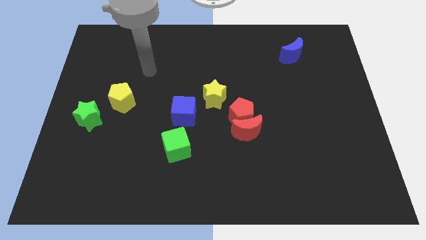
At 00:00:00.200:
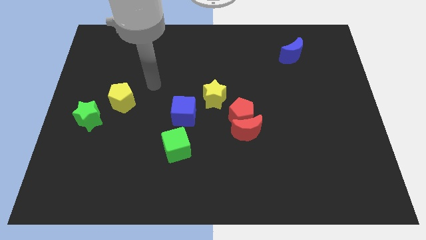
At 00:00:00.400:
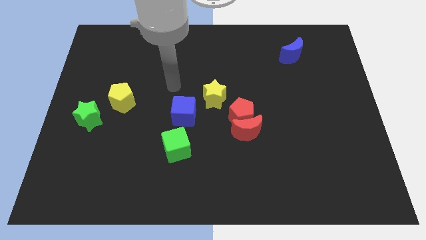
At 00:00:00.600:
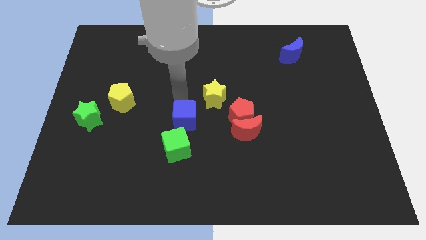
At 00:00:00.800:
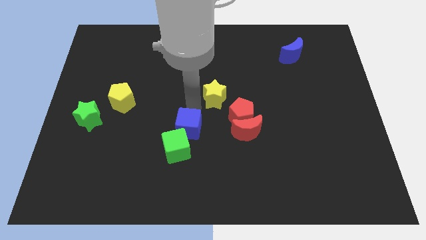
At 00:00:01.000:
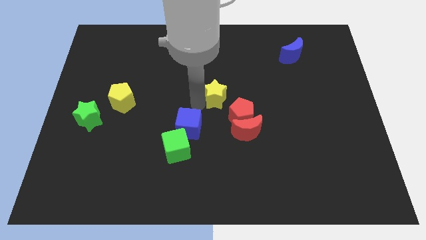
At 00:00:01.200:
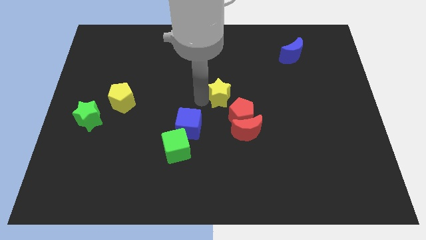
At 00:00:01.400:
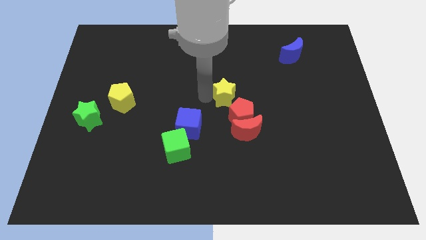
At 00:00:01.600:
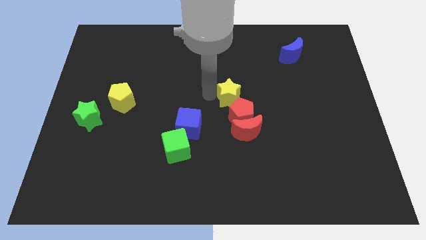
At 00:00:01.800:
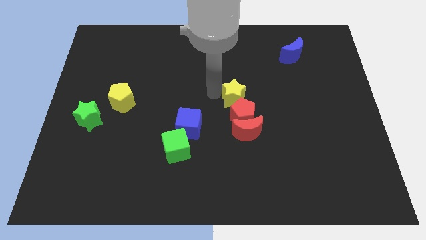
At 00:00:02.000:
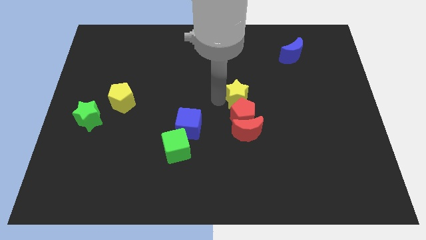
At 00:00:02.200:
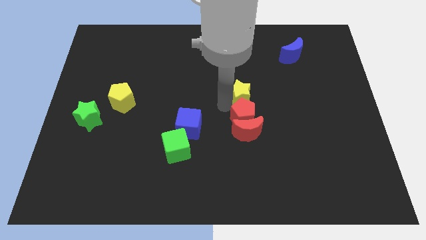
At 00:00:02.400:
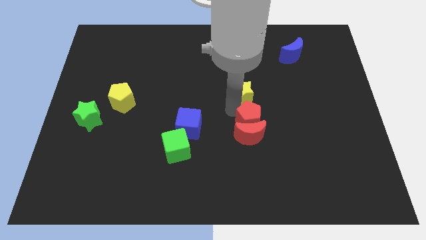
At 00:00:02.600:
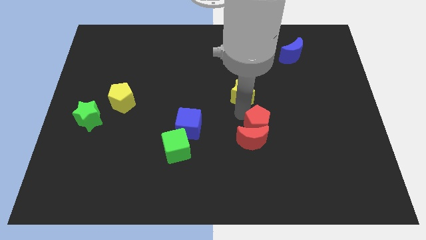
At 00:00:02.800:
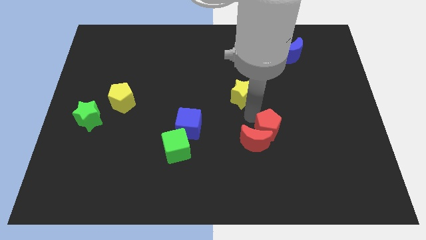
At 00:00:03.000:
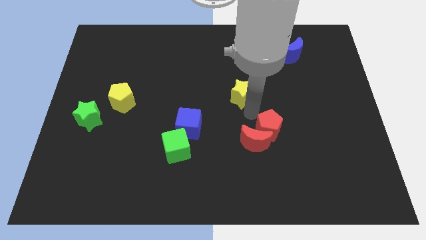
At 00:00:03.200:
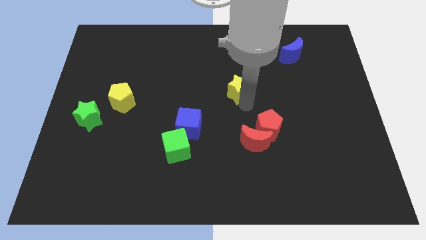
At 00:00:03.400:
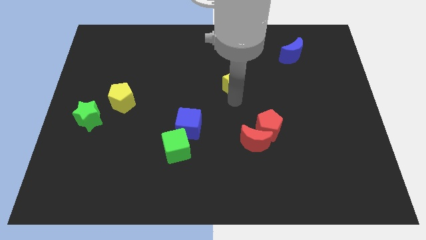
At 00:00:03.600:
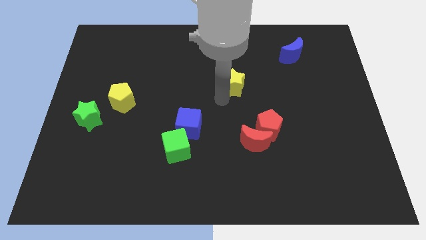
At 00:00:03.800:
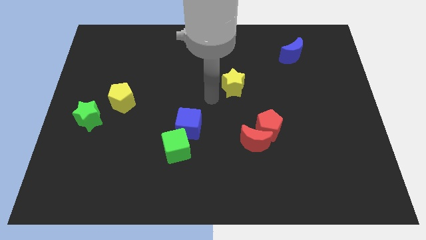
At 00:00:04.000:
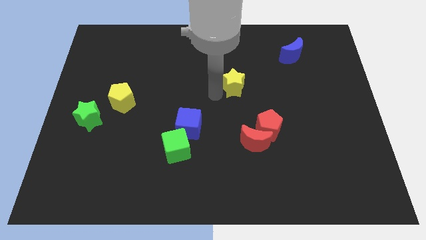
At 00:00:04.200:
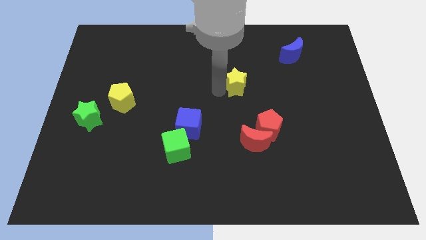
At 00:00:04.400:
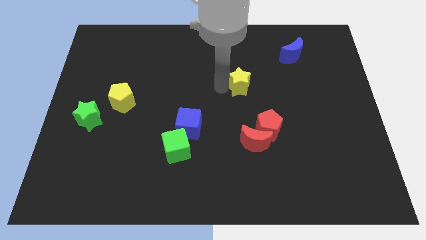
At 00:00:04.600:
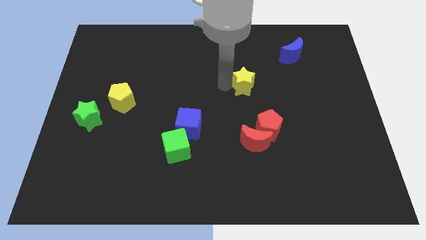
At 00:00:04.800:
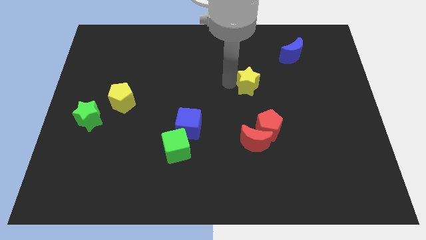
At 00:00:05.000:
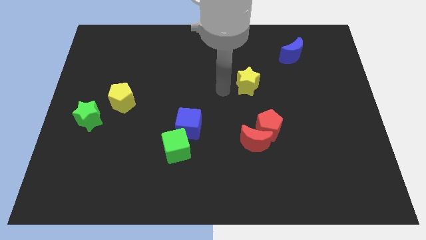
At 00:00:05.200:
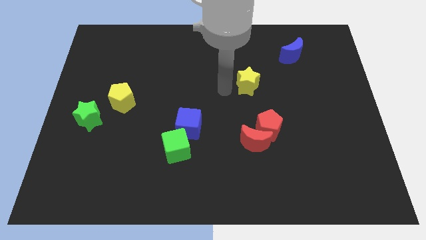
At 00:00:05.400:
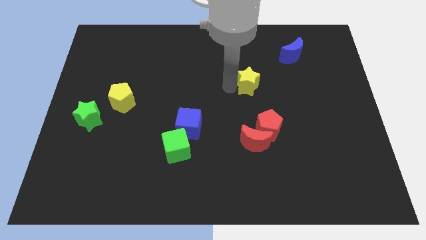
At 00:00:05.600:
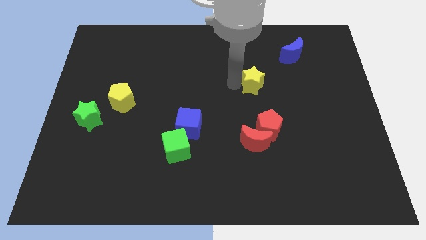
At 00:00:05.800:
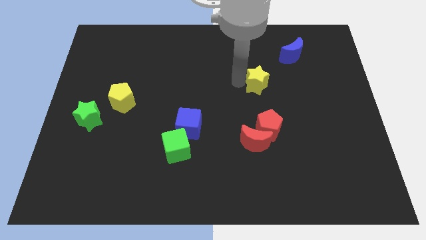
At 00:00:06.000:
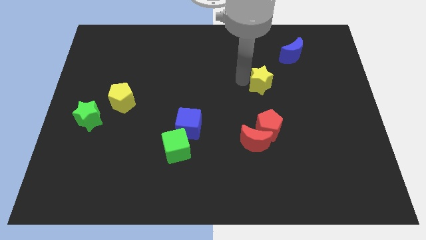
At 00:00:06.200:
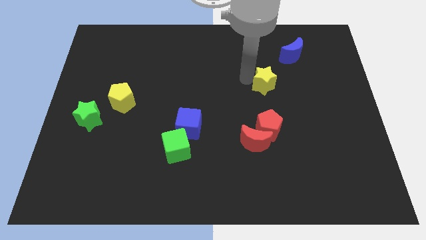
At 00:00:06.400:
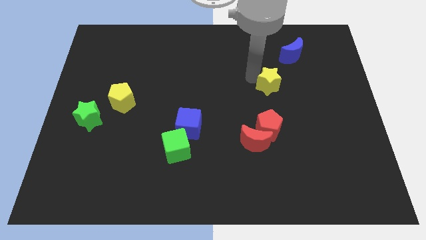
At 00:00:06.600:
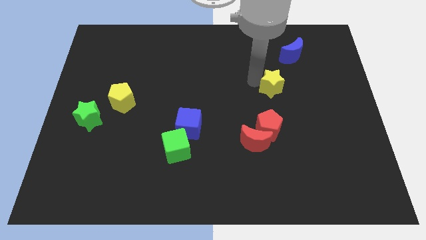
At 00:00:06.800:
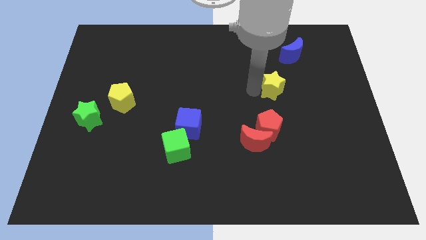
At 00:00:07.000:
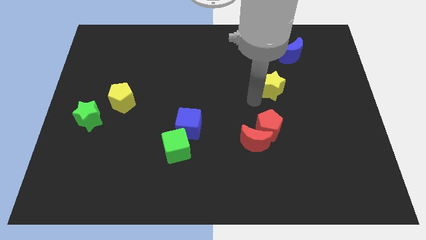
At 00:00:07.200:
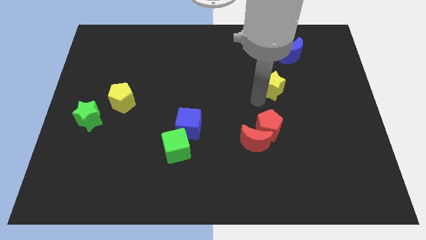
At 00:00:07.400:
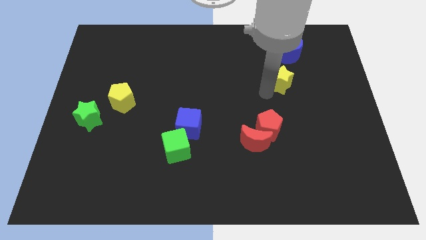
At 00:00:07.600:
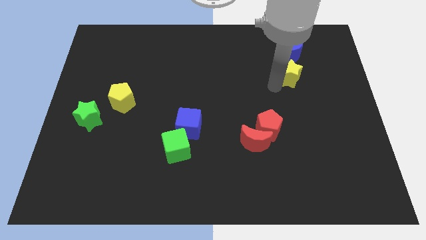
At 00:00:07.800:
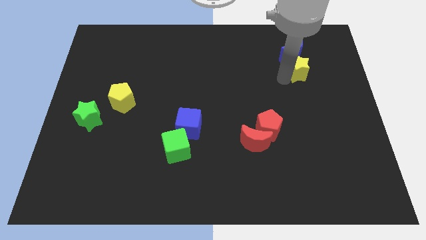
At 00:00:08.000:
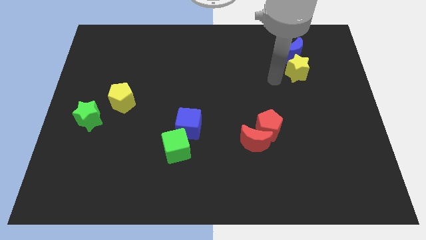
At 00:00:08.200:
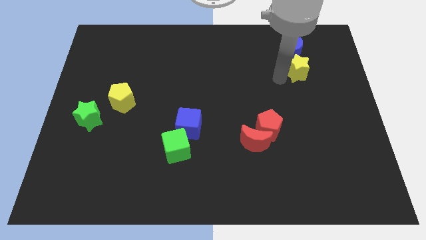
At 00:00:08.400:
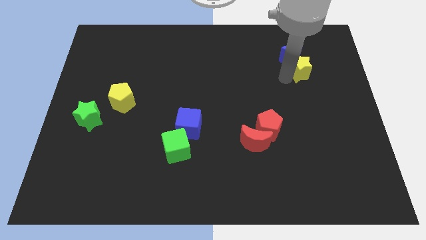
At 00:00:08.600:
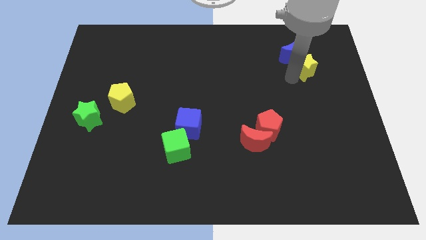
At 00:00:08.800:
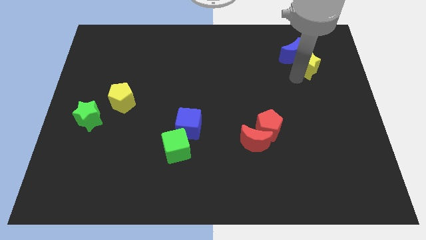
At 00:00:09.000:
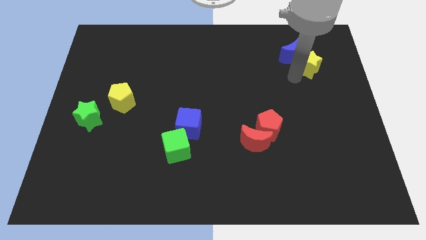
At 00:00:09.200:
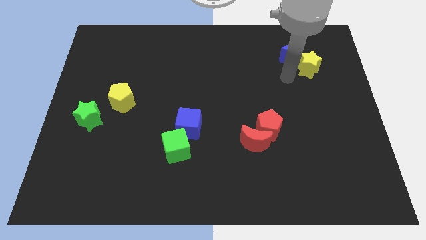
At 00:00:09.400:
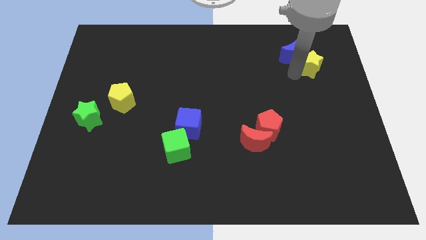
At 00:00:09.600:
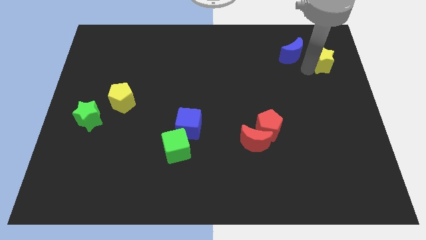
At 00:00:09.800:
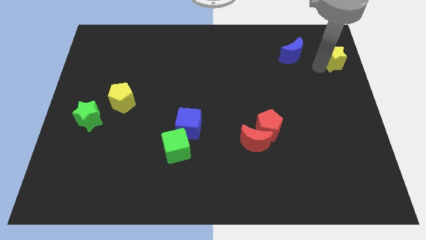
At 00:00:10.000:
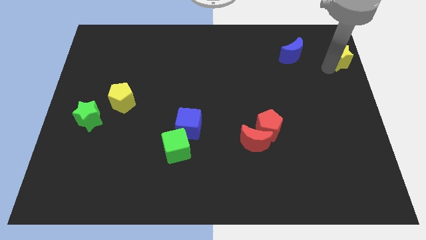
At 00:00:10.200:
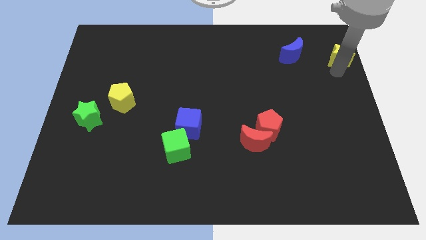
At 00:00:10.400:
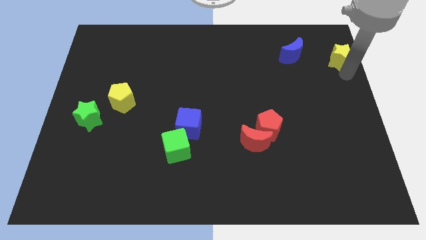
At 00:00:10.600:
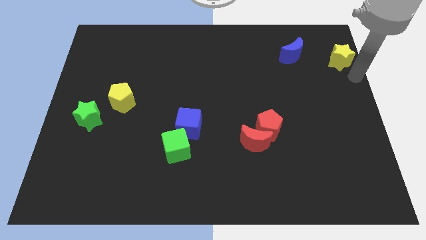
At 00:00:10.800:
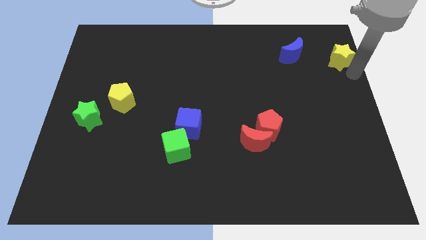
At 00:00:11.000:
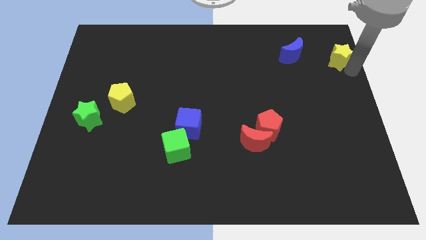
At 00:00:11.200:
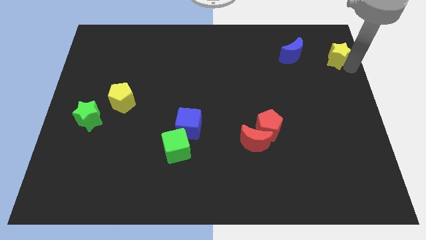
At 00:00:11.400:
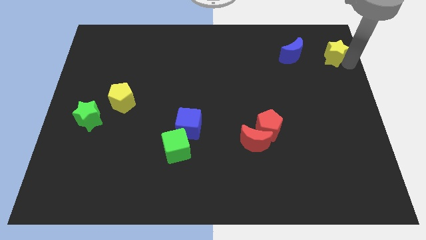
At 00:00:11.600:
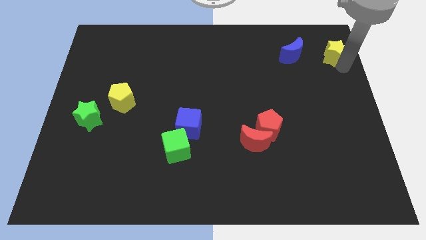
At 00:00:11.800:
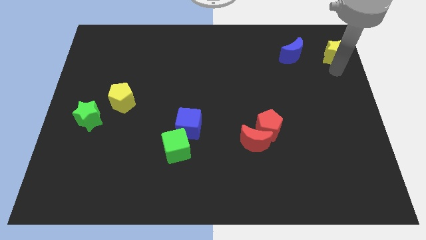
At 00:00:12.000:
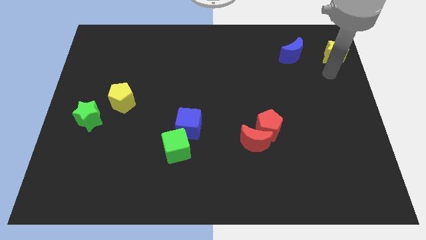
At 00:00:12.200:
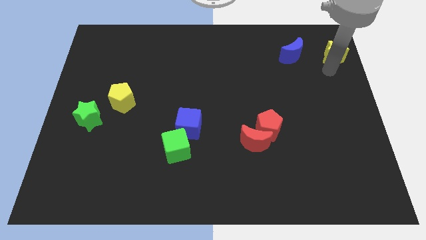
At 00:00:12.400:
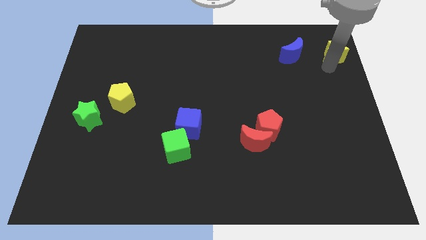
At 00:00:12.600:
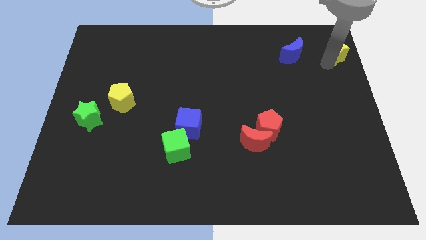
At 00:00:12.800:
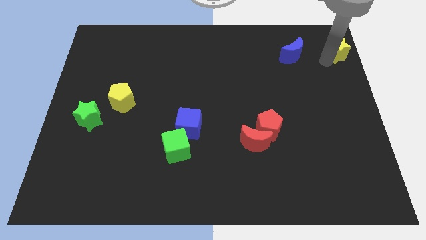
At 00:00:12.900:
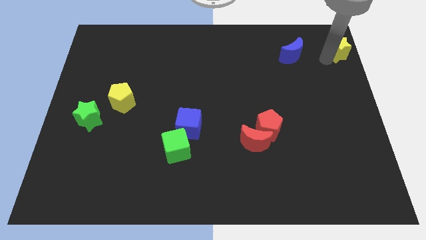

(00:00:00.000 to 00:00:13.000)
slide the yellow star to the top right
